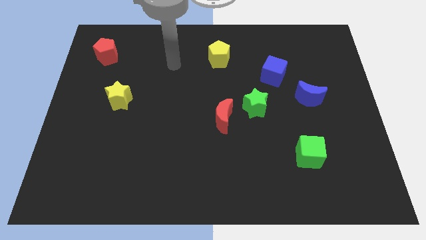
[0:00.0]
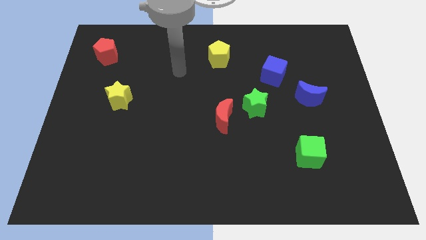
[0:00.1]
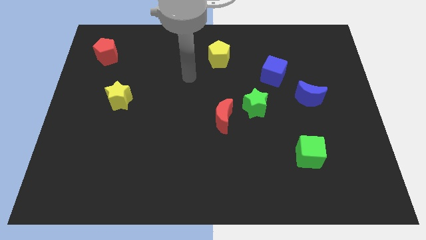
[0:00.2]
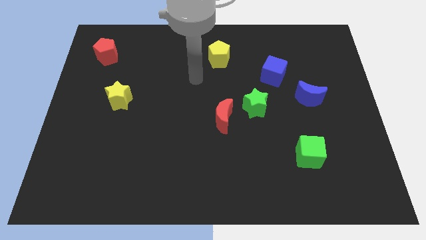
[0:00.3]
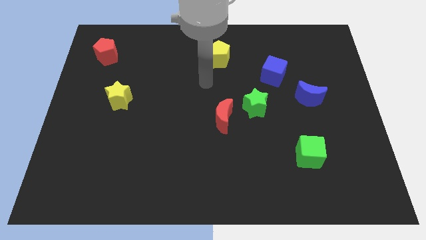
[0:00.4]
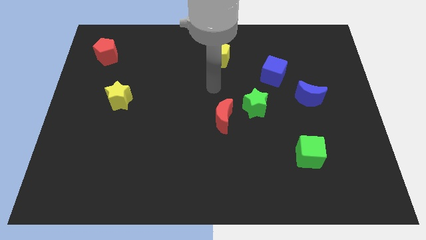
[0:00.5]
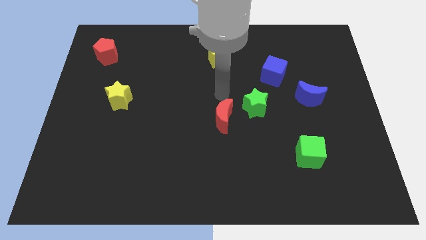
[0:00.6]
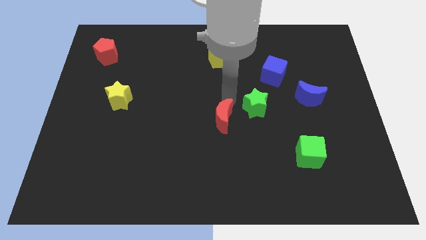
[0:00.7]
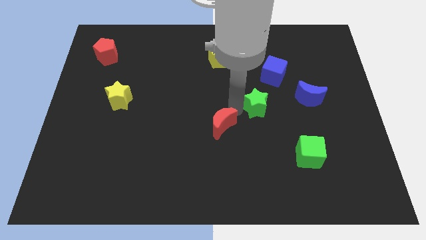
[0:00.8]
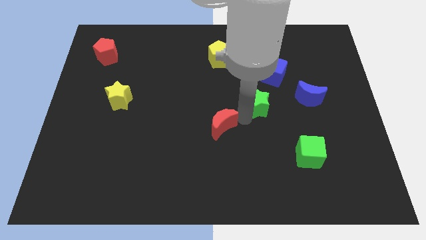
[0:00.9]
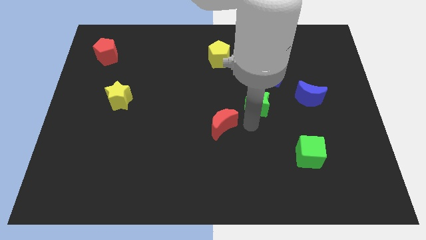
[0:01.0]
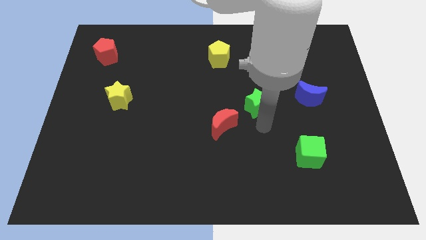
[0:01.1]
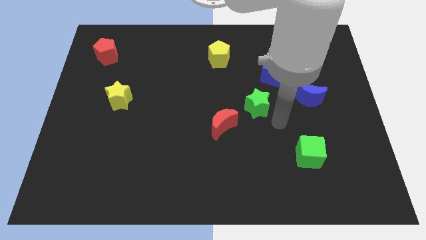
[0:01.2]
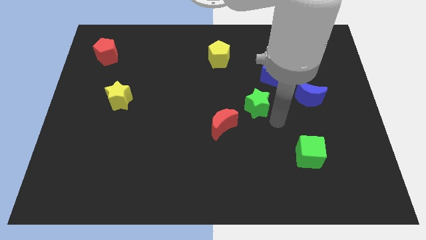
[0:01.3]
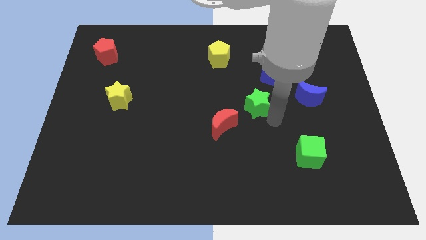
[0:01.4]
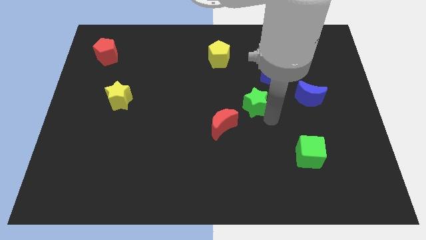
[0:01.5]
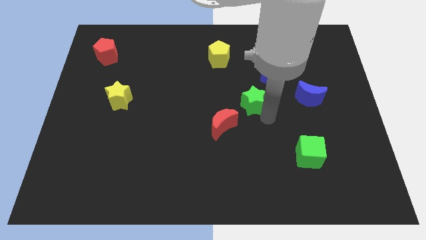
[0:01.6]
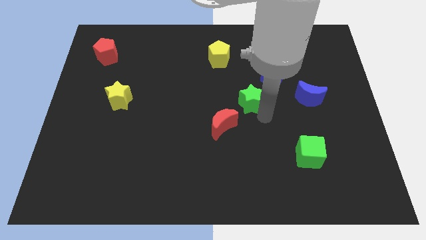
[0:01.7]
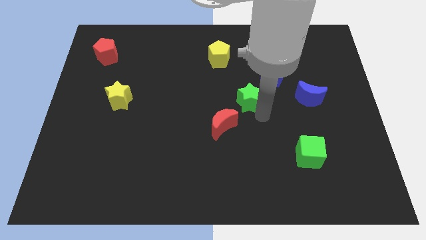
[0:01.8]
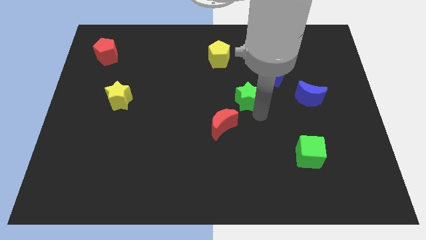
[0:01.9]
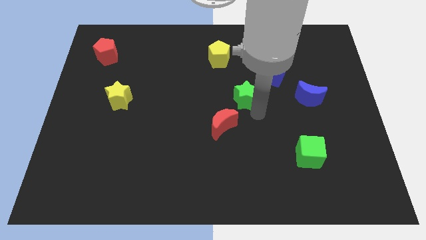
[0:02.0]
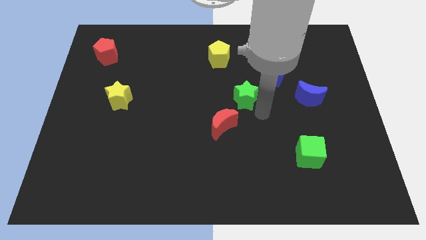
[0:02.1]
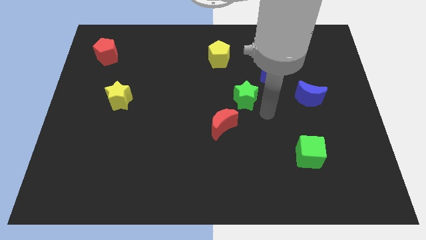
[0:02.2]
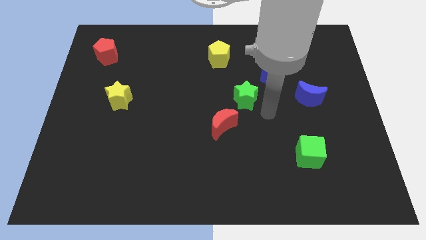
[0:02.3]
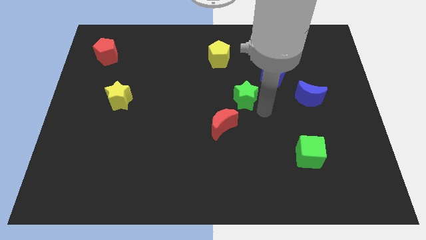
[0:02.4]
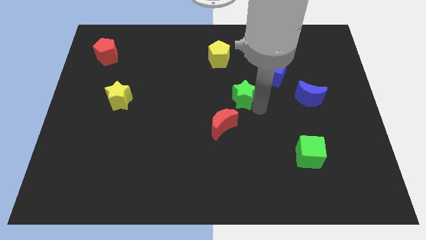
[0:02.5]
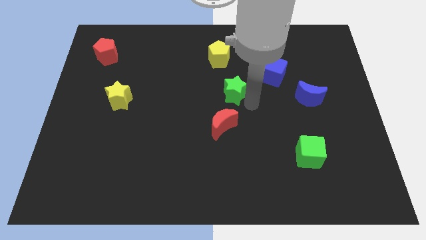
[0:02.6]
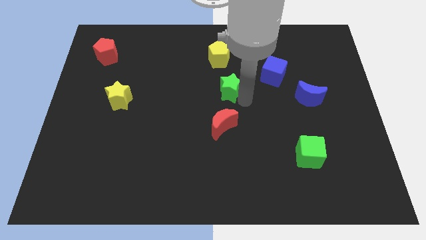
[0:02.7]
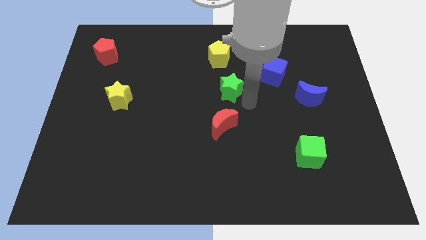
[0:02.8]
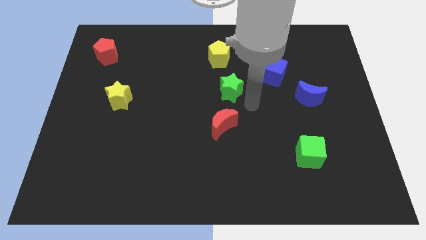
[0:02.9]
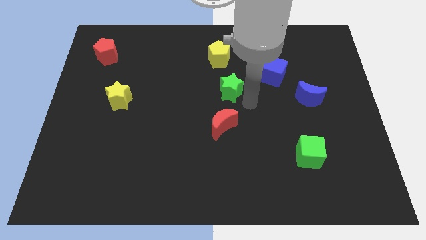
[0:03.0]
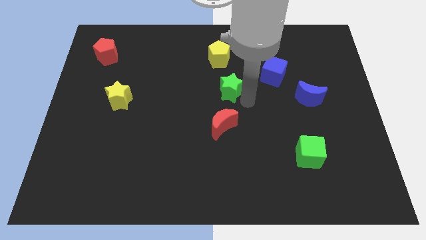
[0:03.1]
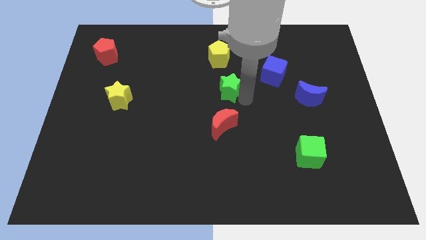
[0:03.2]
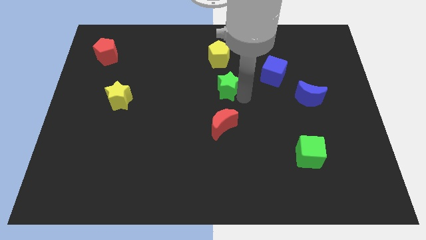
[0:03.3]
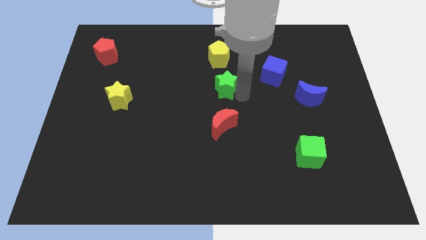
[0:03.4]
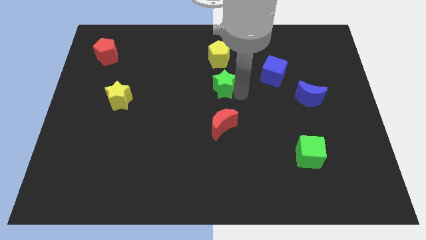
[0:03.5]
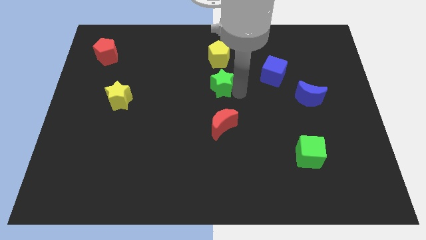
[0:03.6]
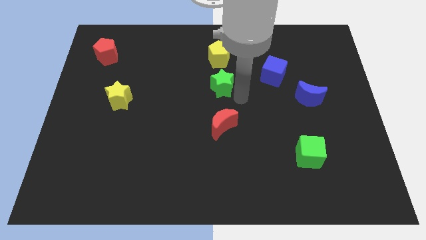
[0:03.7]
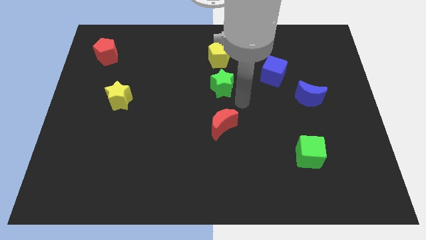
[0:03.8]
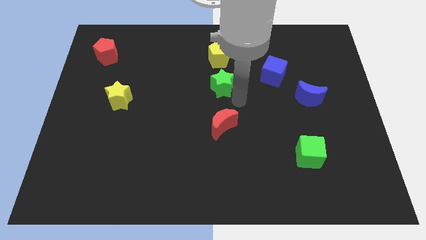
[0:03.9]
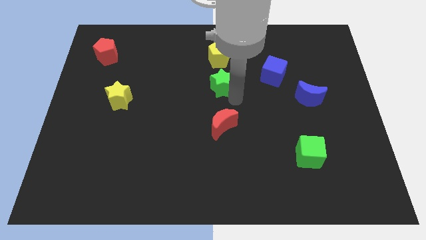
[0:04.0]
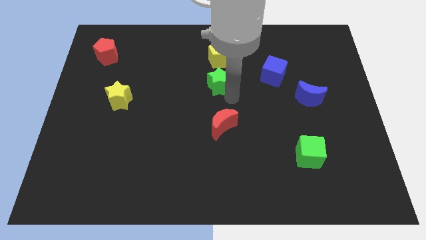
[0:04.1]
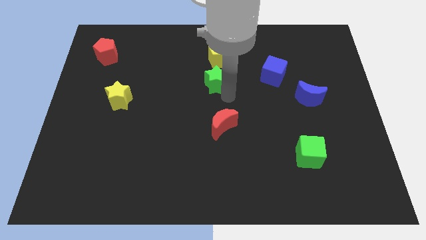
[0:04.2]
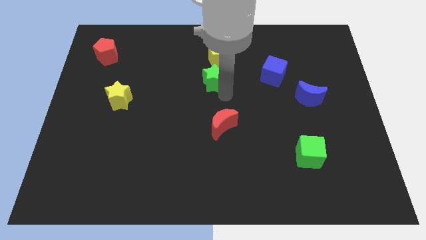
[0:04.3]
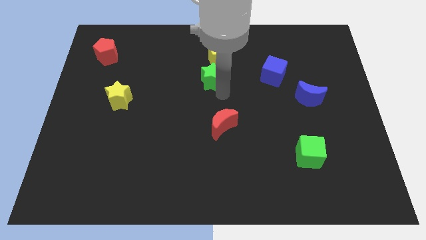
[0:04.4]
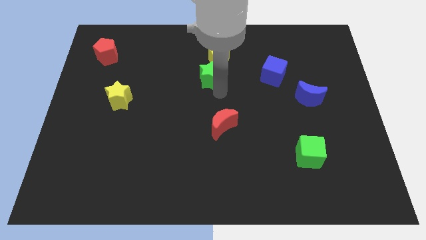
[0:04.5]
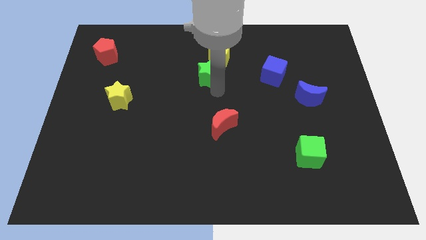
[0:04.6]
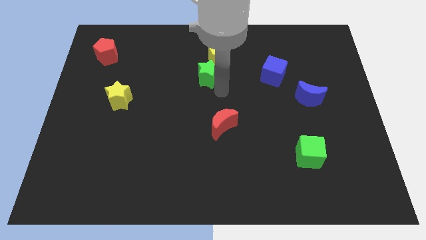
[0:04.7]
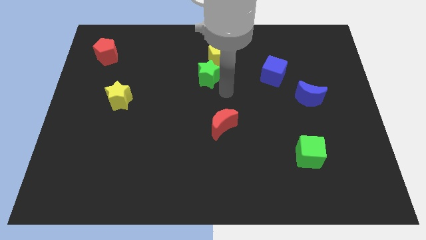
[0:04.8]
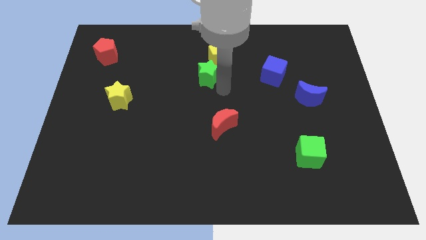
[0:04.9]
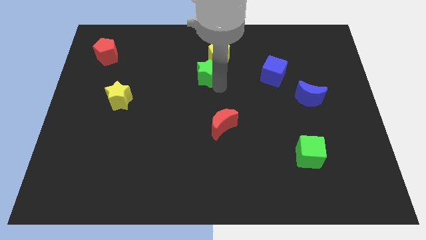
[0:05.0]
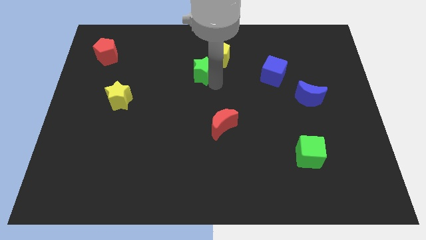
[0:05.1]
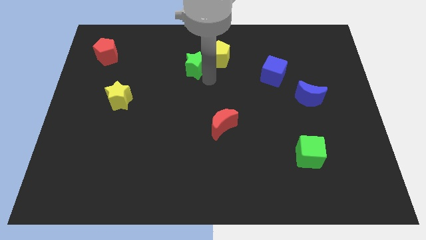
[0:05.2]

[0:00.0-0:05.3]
move the green star to the left side of the yellow pentagon

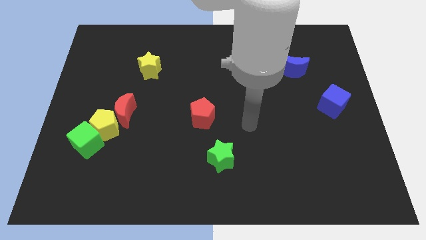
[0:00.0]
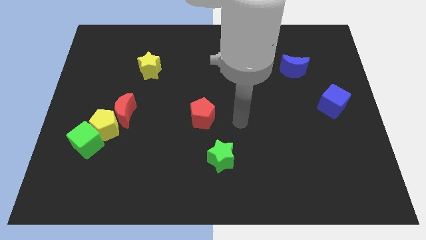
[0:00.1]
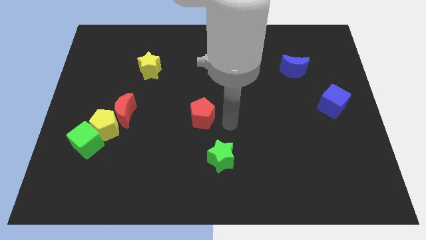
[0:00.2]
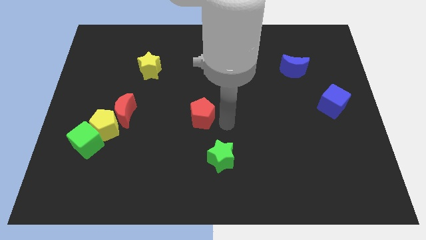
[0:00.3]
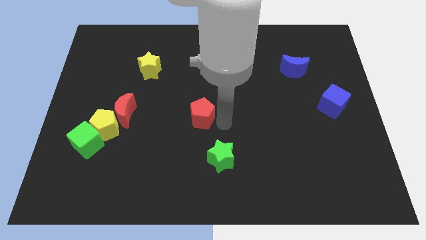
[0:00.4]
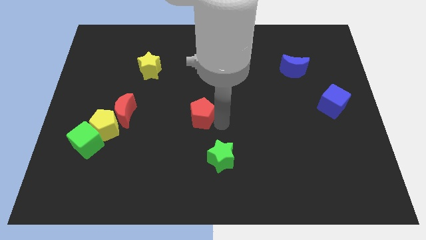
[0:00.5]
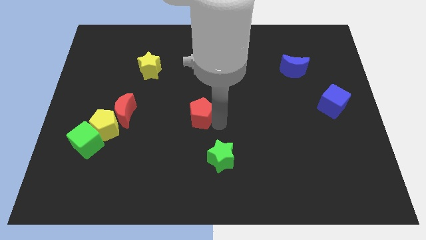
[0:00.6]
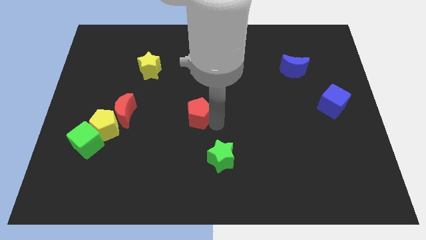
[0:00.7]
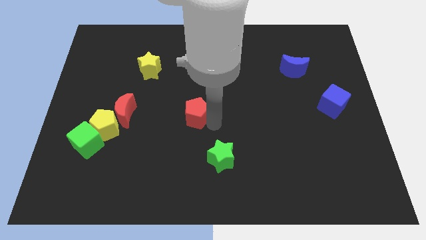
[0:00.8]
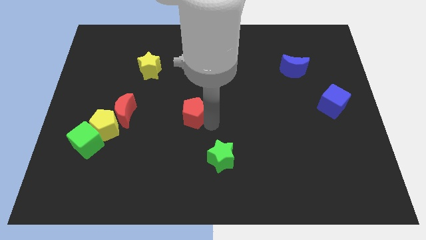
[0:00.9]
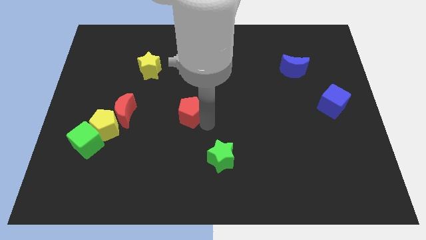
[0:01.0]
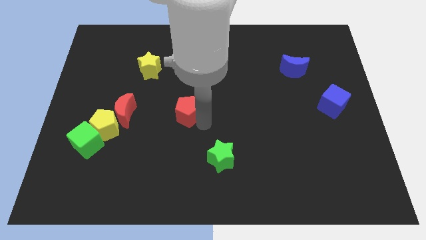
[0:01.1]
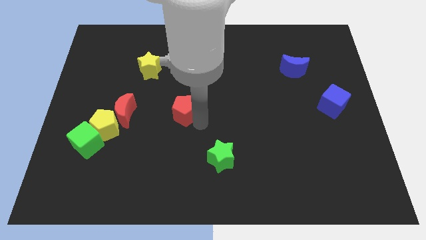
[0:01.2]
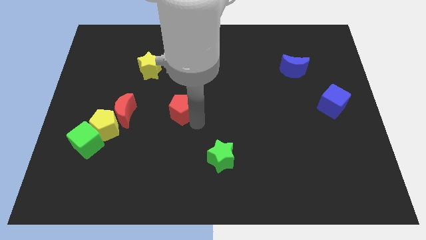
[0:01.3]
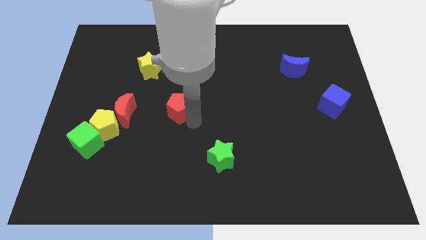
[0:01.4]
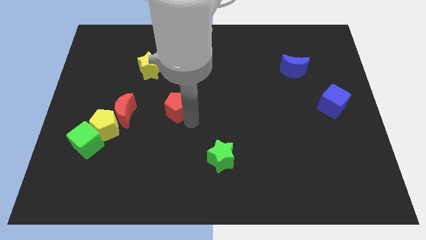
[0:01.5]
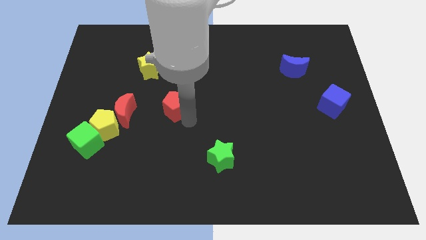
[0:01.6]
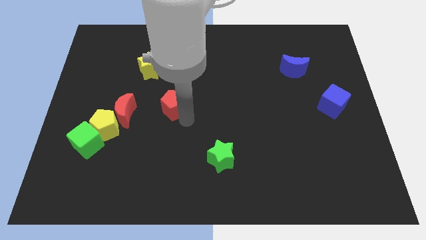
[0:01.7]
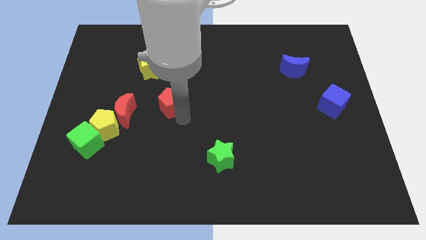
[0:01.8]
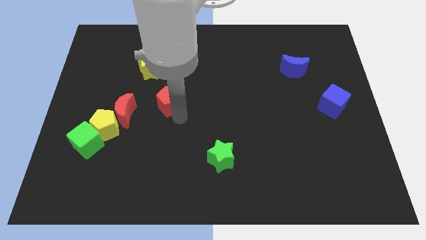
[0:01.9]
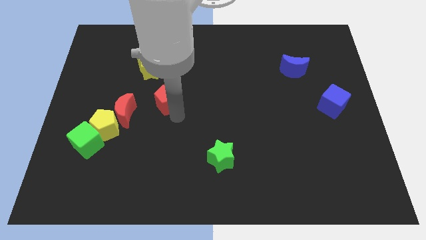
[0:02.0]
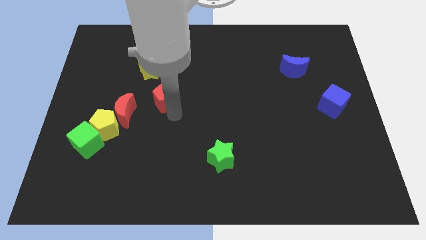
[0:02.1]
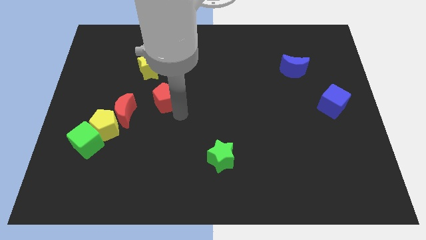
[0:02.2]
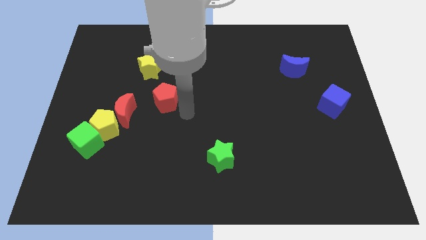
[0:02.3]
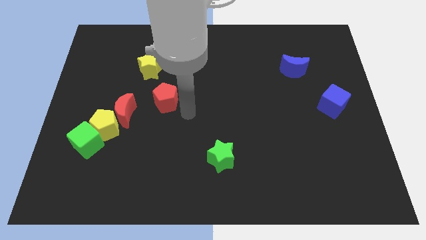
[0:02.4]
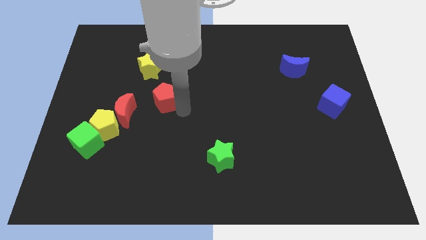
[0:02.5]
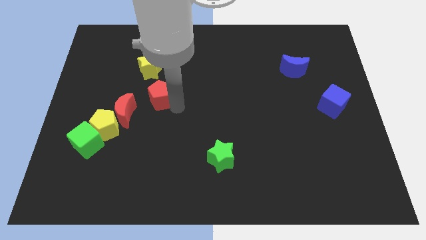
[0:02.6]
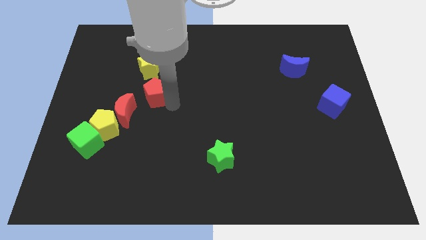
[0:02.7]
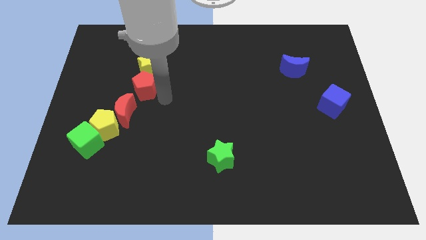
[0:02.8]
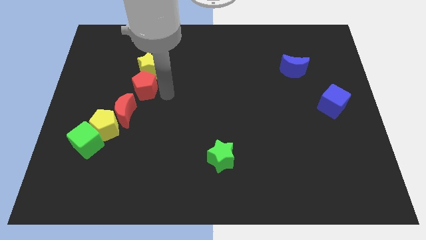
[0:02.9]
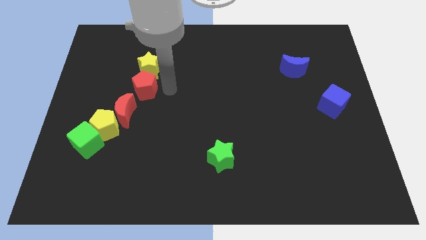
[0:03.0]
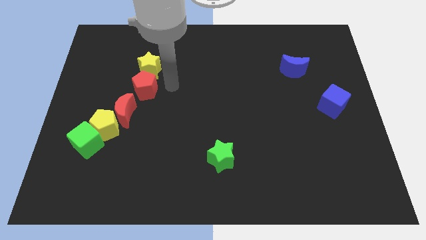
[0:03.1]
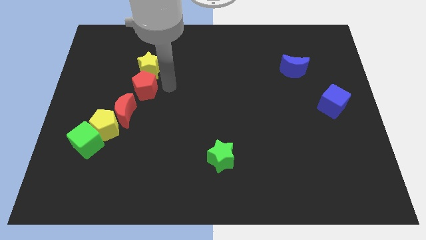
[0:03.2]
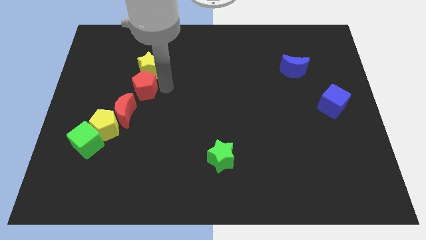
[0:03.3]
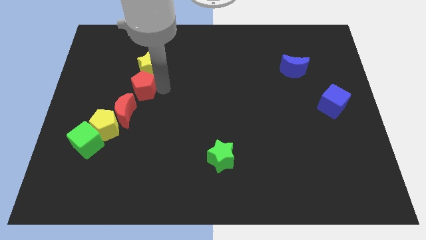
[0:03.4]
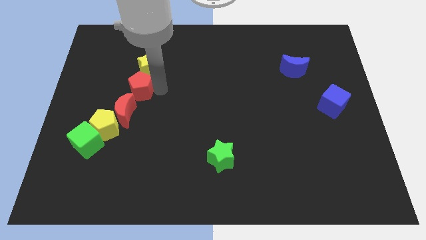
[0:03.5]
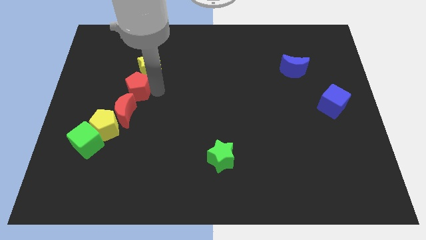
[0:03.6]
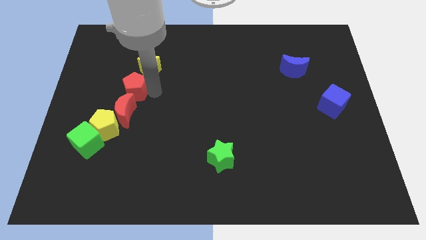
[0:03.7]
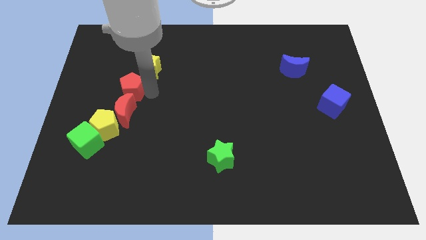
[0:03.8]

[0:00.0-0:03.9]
put the red pentagon above the yellow pentagon
